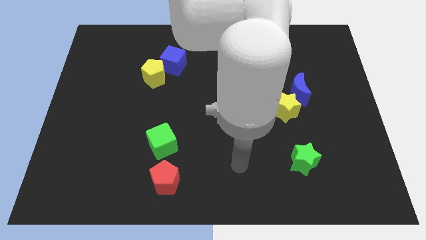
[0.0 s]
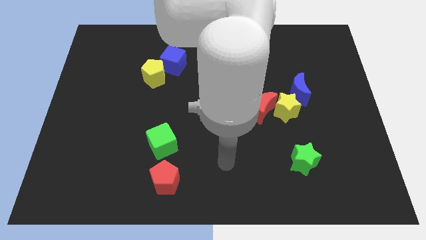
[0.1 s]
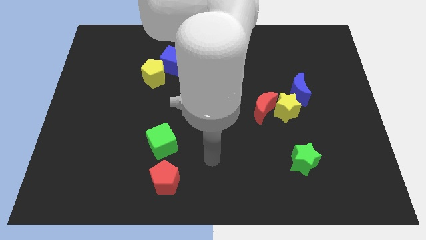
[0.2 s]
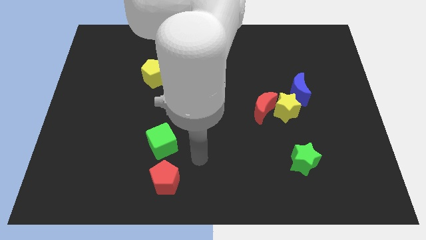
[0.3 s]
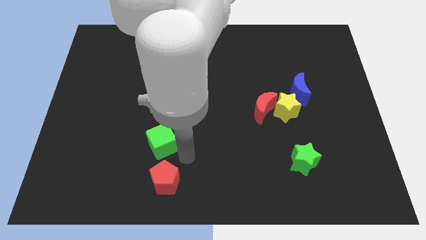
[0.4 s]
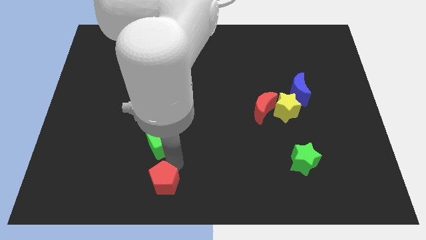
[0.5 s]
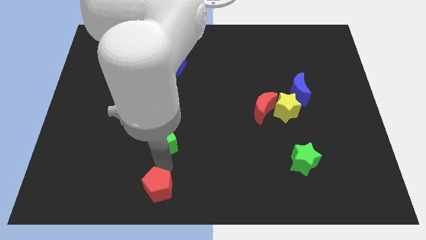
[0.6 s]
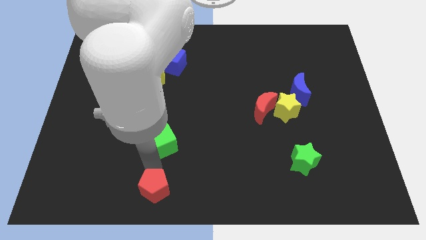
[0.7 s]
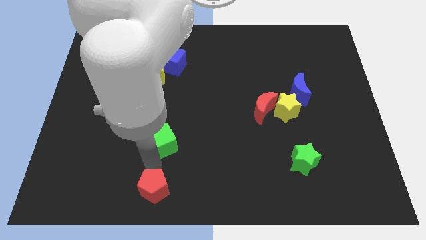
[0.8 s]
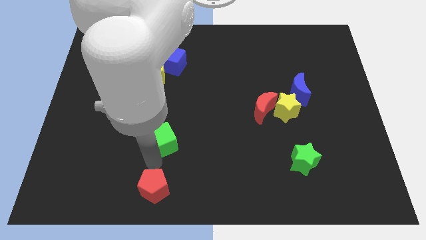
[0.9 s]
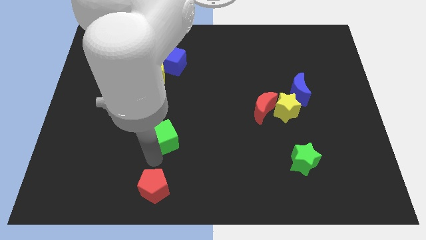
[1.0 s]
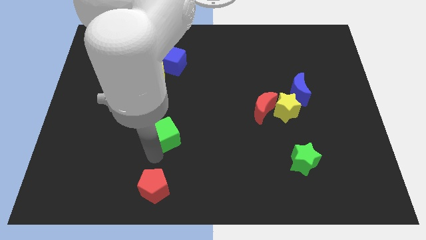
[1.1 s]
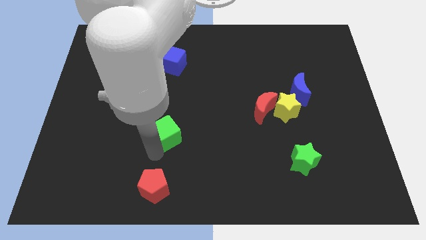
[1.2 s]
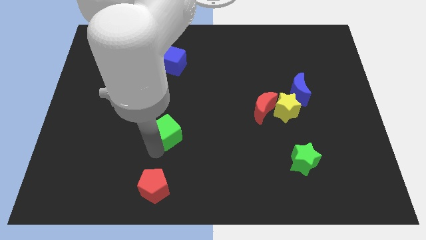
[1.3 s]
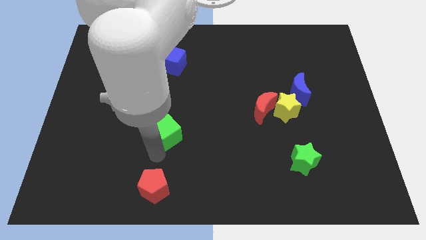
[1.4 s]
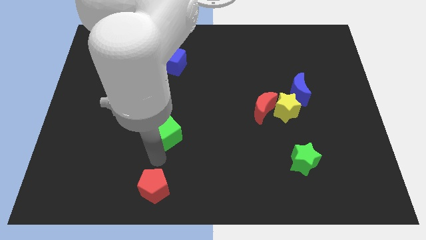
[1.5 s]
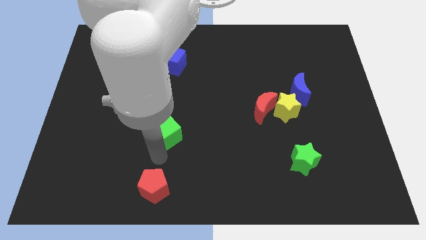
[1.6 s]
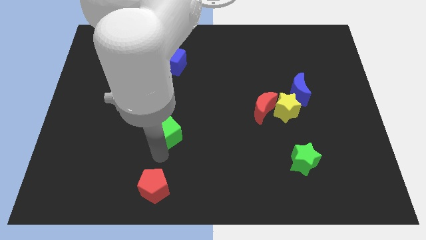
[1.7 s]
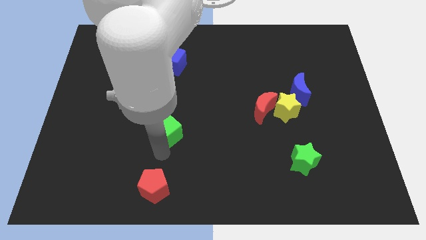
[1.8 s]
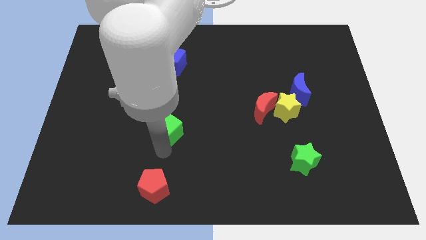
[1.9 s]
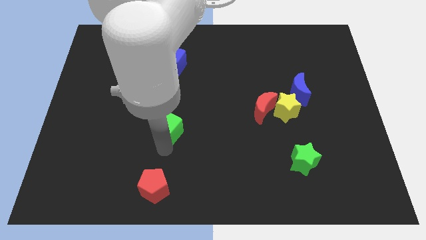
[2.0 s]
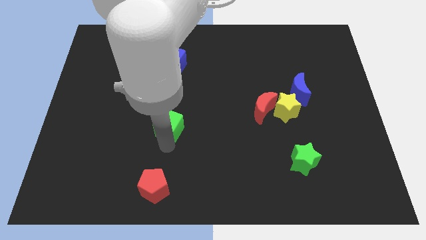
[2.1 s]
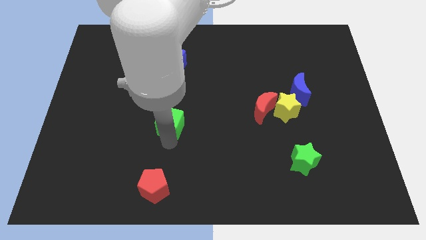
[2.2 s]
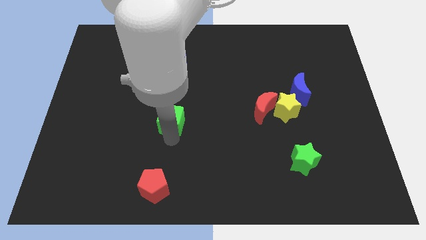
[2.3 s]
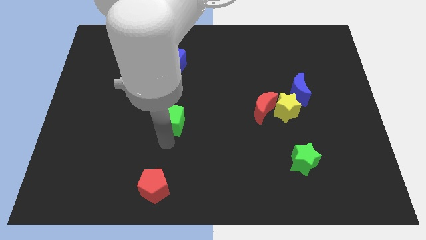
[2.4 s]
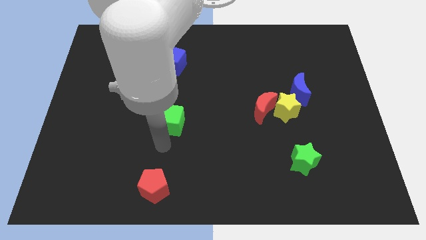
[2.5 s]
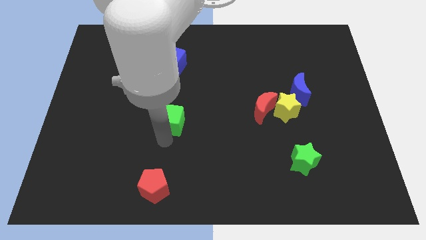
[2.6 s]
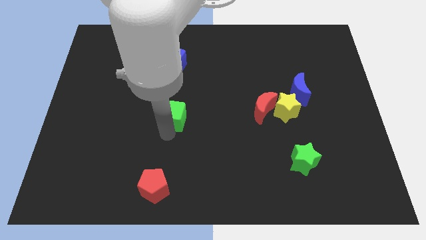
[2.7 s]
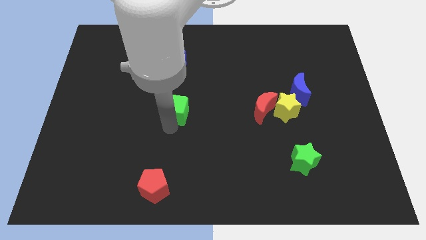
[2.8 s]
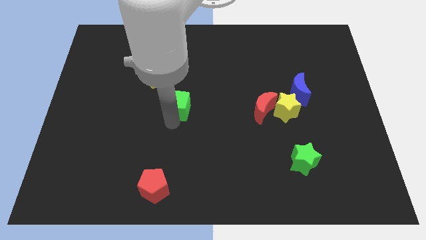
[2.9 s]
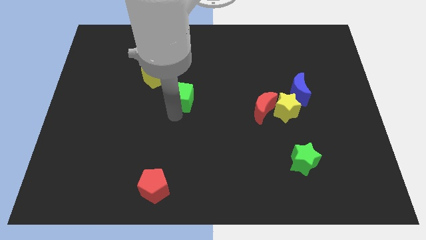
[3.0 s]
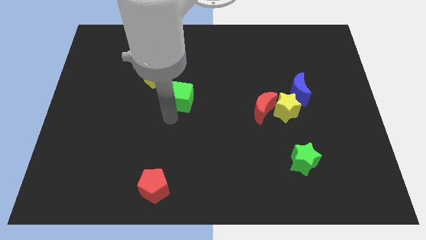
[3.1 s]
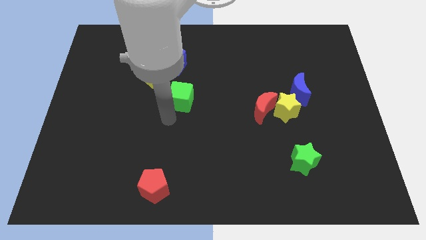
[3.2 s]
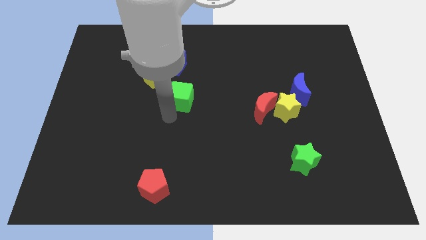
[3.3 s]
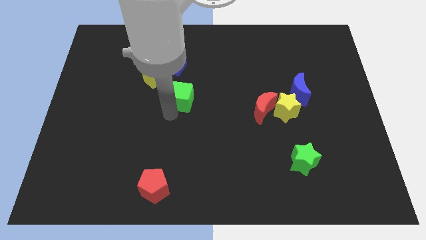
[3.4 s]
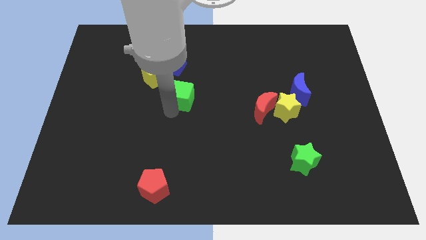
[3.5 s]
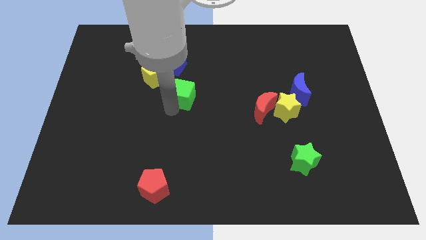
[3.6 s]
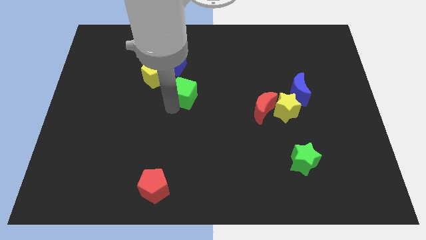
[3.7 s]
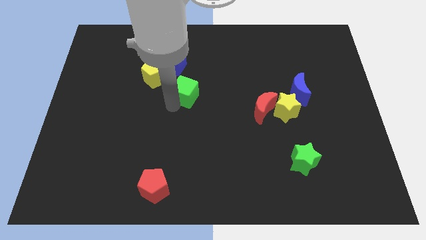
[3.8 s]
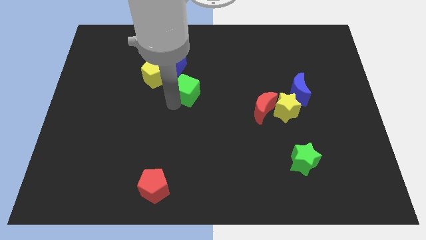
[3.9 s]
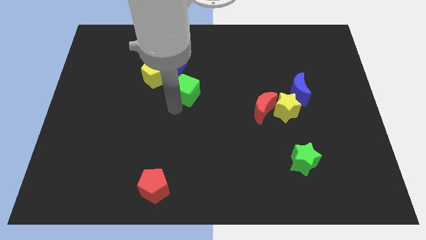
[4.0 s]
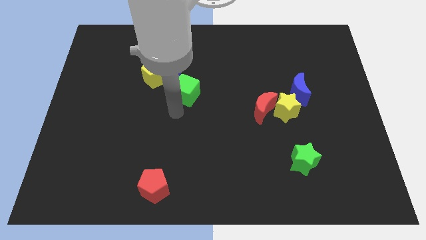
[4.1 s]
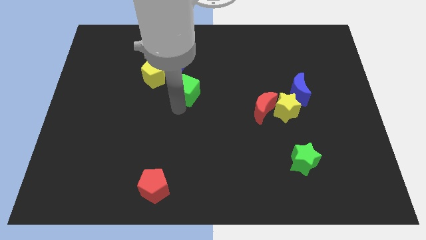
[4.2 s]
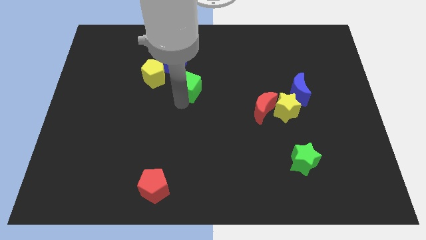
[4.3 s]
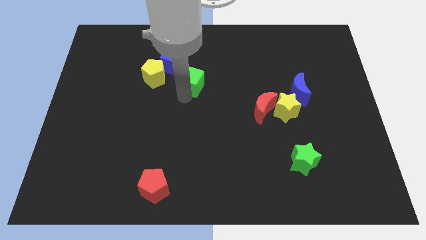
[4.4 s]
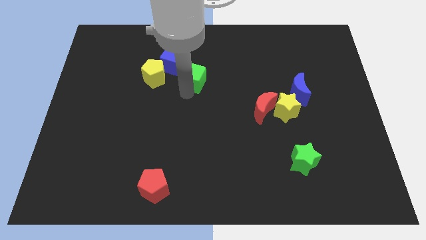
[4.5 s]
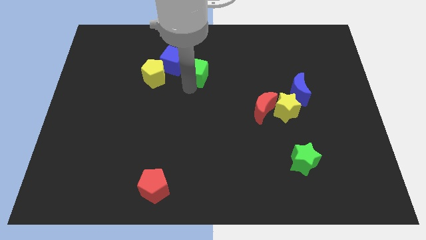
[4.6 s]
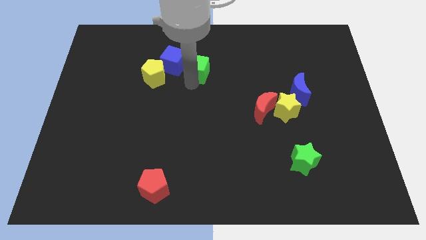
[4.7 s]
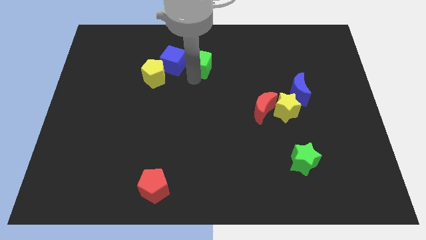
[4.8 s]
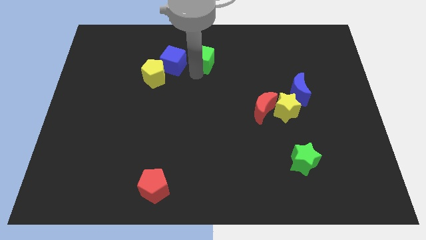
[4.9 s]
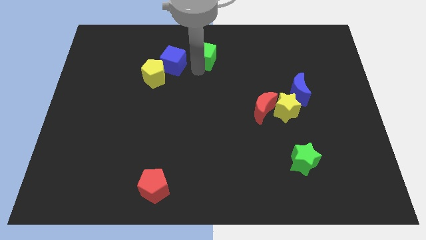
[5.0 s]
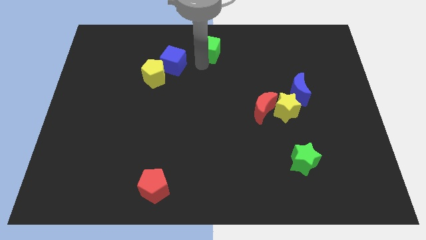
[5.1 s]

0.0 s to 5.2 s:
move the green cube to the top

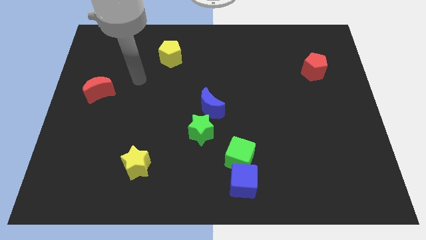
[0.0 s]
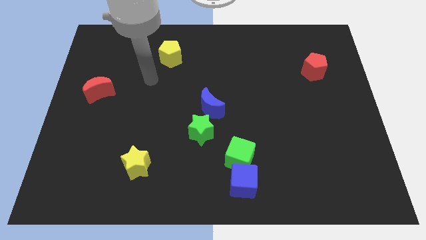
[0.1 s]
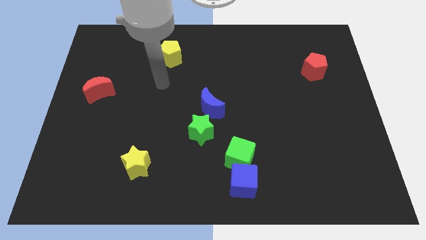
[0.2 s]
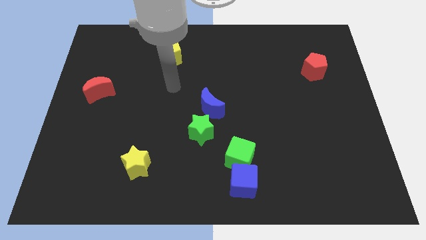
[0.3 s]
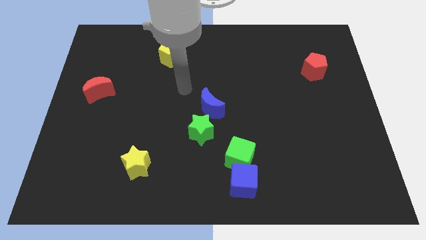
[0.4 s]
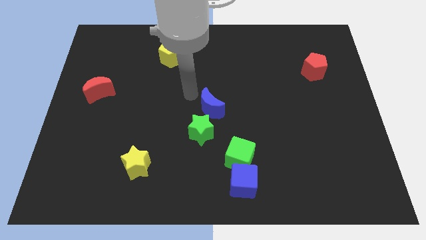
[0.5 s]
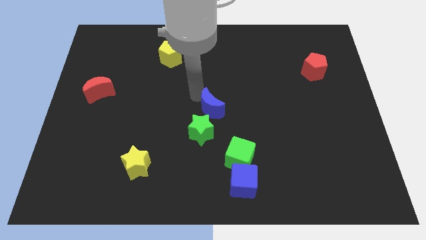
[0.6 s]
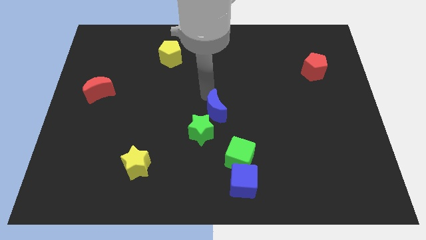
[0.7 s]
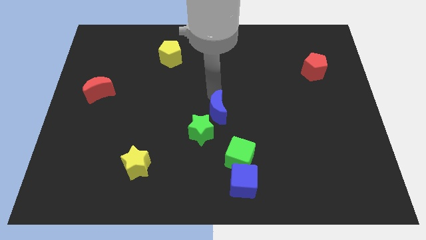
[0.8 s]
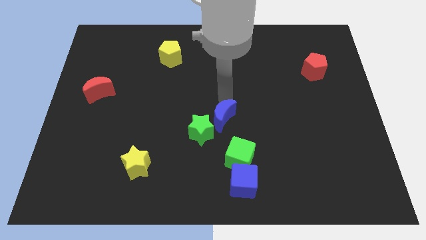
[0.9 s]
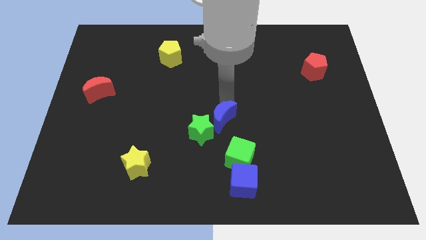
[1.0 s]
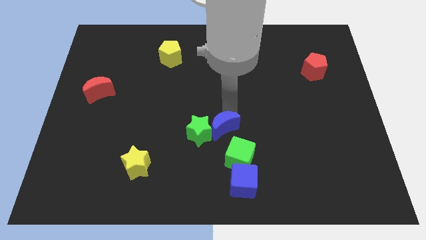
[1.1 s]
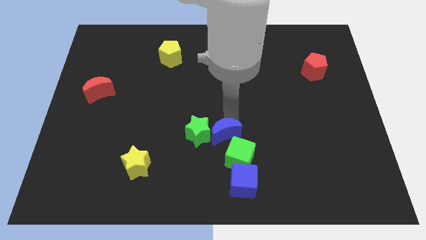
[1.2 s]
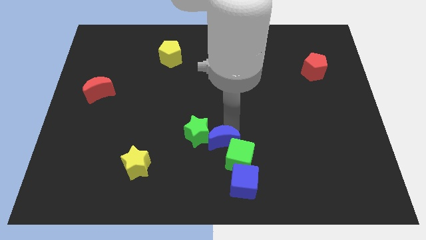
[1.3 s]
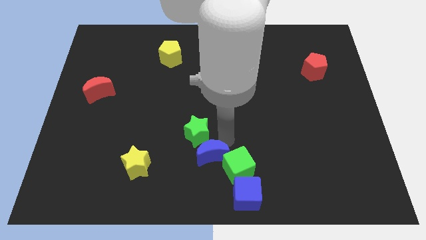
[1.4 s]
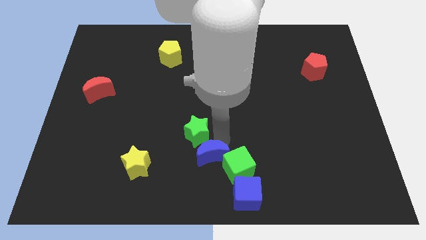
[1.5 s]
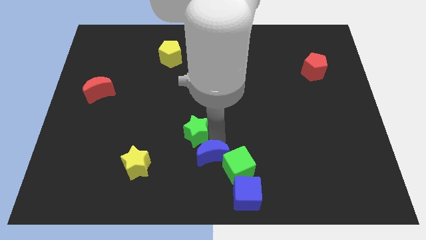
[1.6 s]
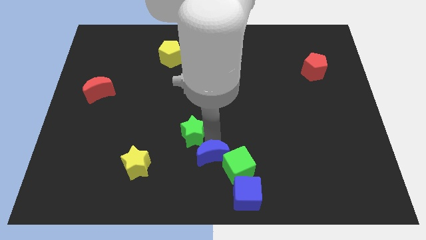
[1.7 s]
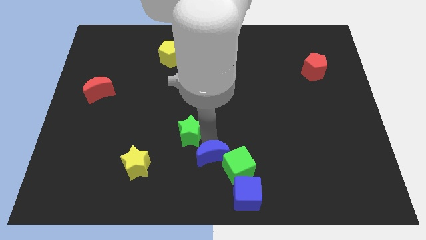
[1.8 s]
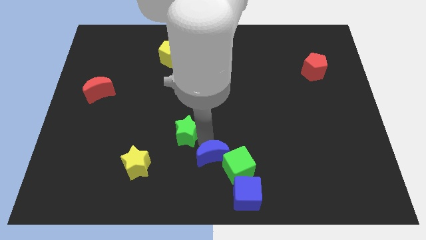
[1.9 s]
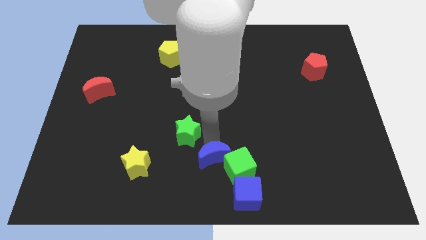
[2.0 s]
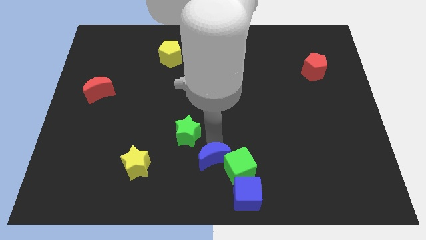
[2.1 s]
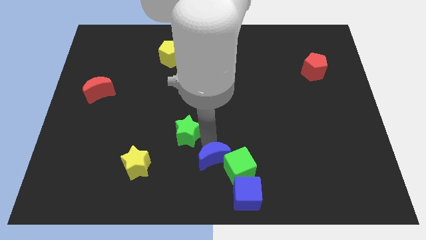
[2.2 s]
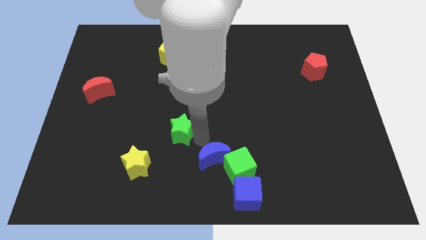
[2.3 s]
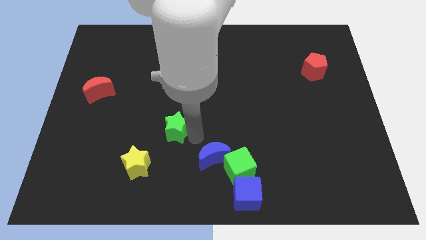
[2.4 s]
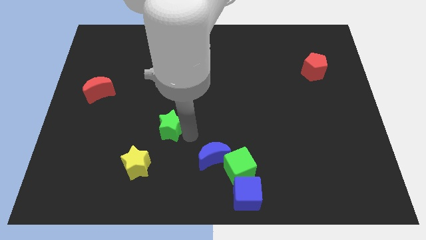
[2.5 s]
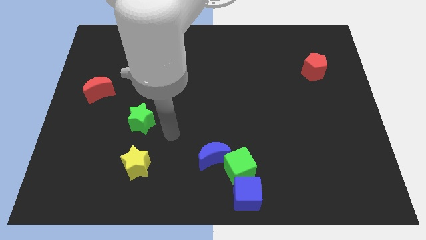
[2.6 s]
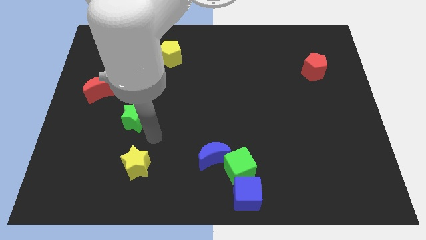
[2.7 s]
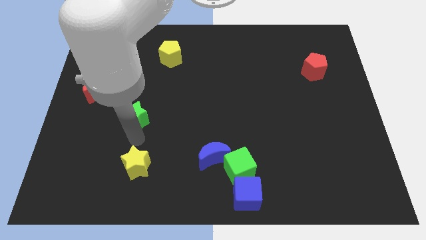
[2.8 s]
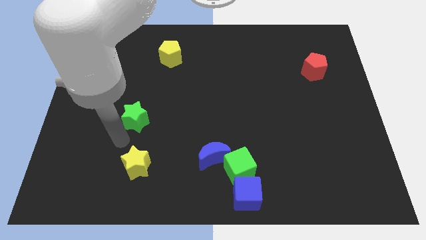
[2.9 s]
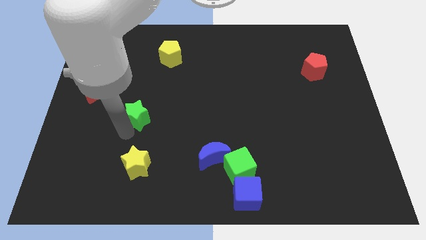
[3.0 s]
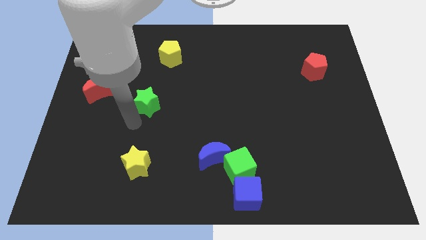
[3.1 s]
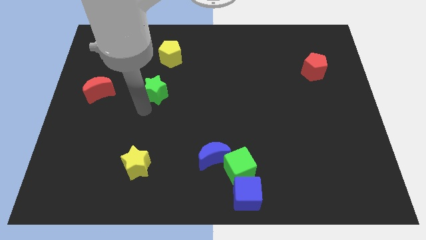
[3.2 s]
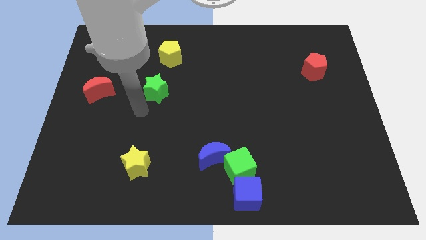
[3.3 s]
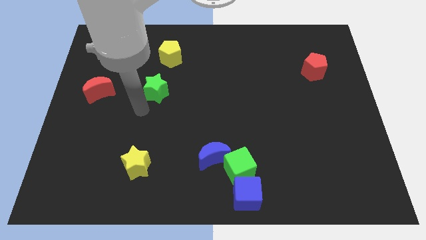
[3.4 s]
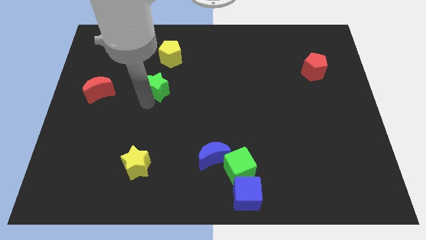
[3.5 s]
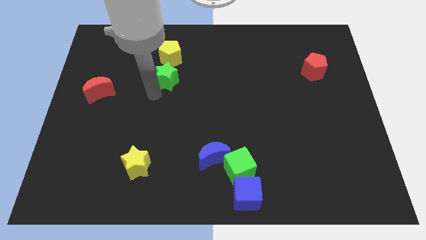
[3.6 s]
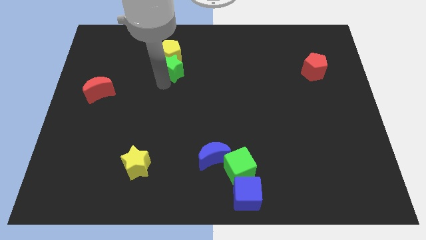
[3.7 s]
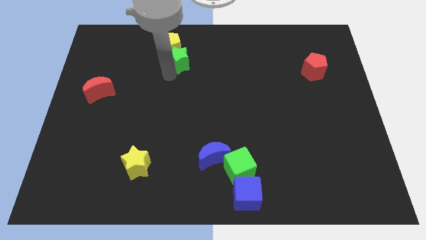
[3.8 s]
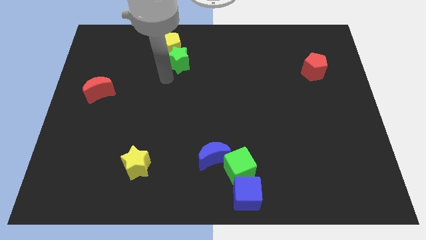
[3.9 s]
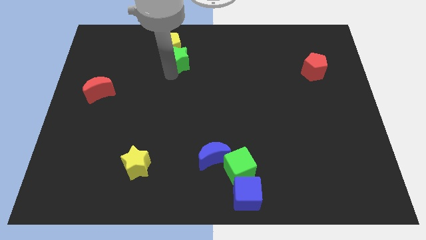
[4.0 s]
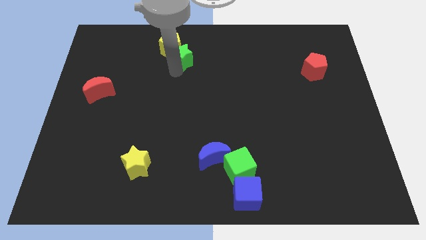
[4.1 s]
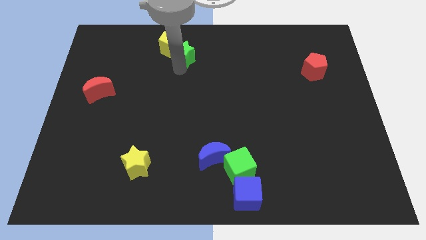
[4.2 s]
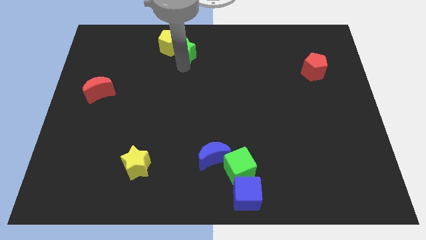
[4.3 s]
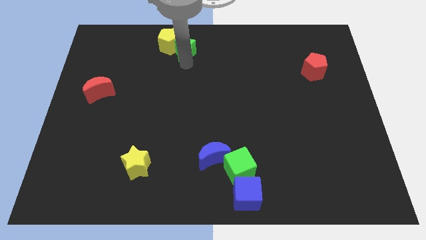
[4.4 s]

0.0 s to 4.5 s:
move the green star to the towards your base
